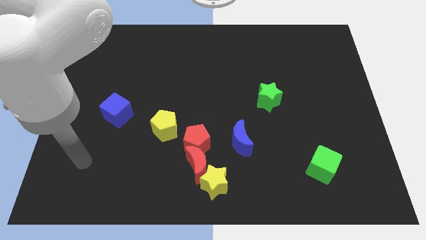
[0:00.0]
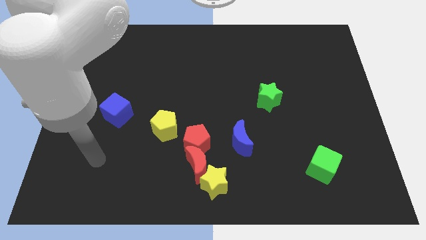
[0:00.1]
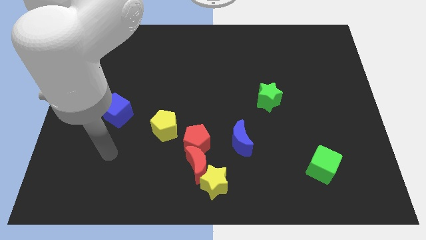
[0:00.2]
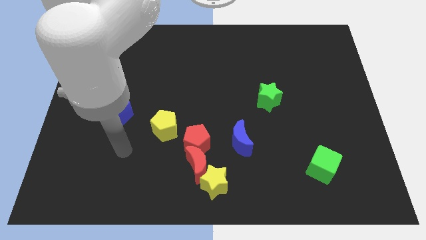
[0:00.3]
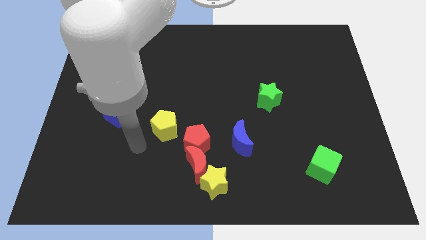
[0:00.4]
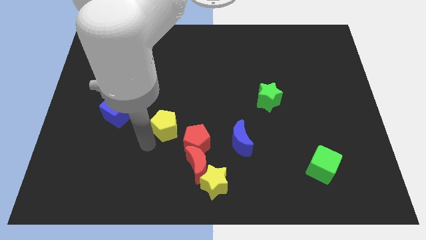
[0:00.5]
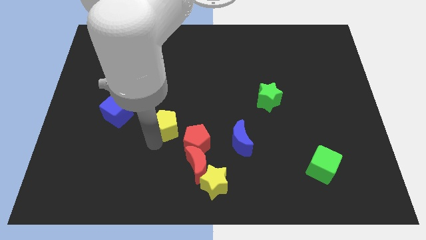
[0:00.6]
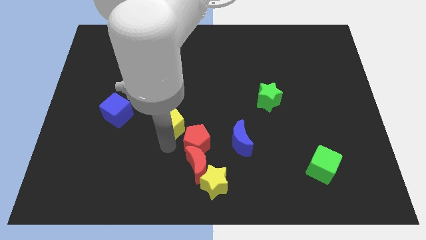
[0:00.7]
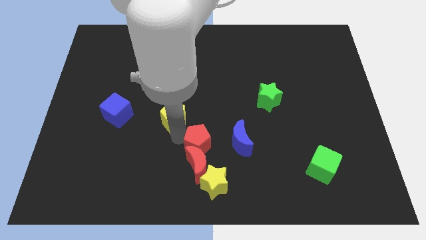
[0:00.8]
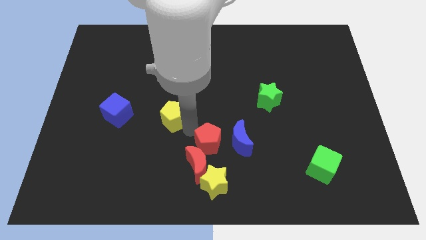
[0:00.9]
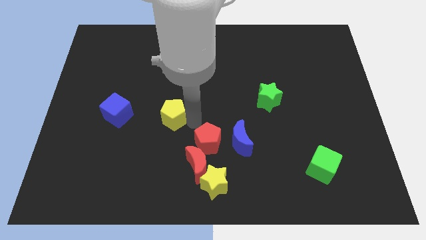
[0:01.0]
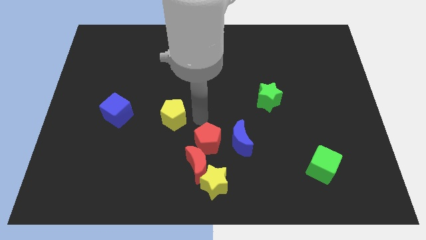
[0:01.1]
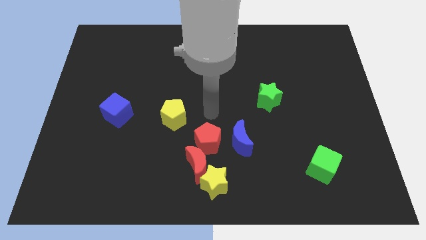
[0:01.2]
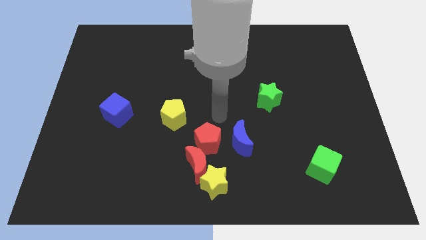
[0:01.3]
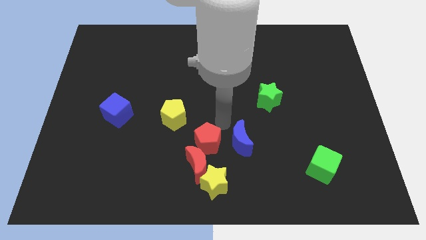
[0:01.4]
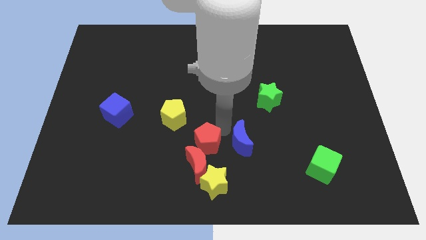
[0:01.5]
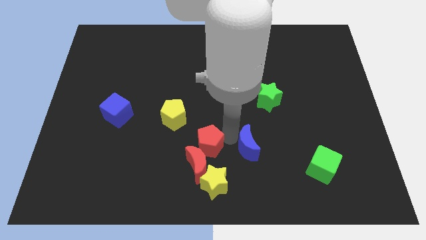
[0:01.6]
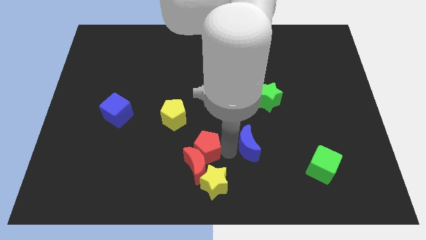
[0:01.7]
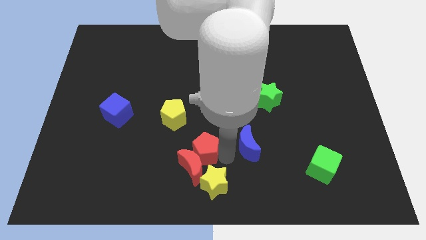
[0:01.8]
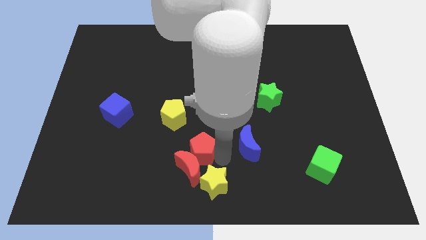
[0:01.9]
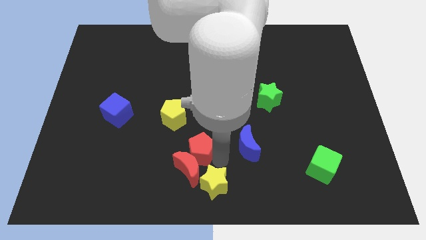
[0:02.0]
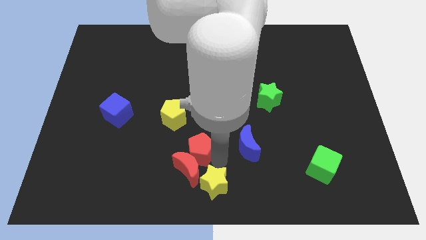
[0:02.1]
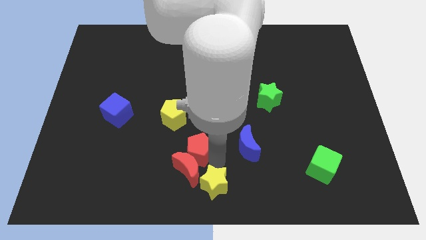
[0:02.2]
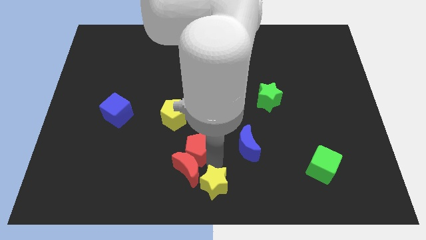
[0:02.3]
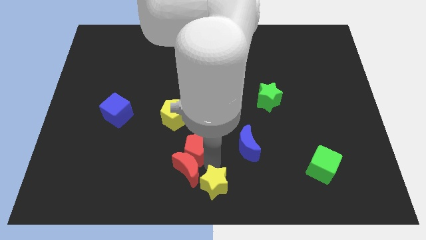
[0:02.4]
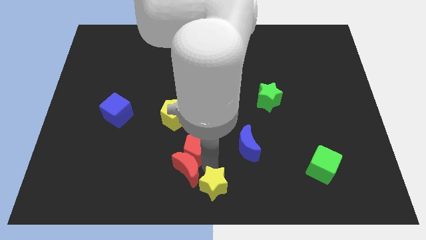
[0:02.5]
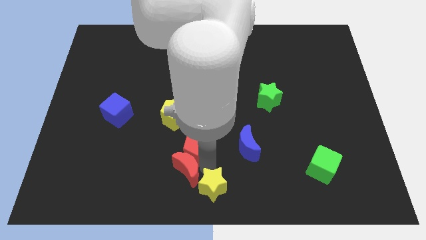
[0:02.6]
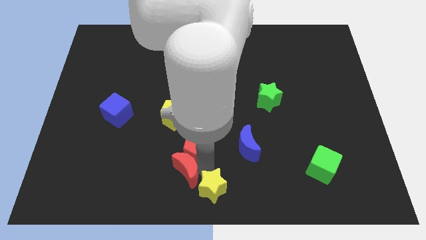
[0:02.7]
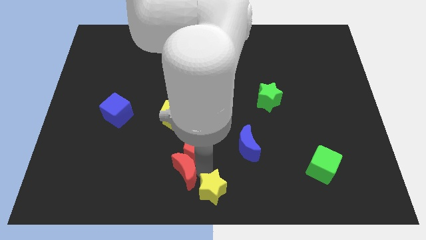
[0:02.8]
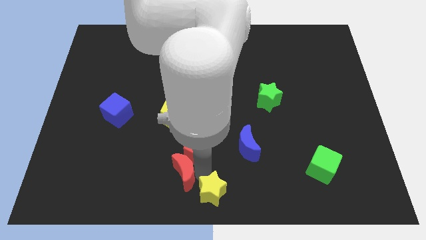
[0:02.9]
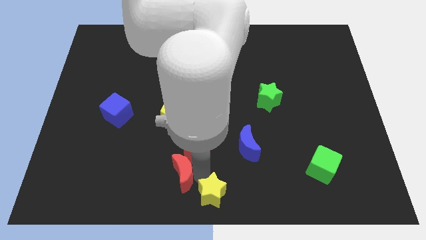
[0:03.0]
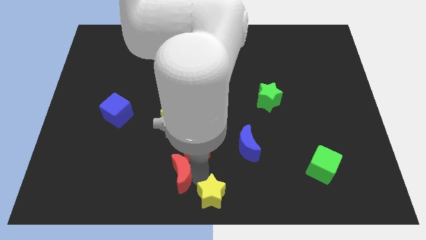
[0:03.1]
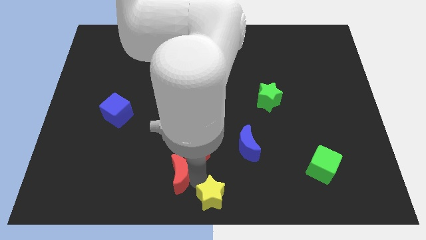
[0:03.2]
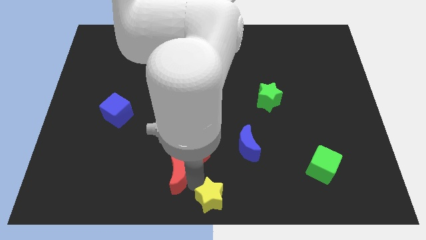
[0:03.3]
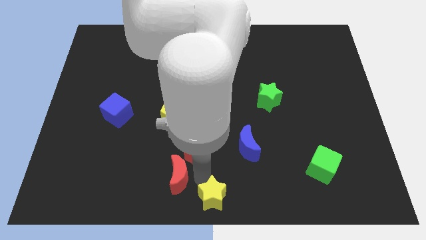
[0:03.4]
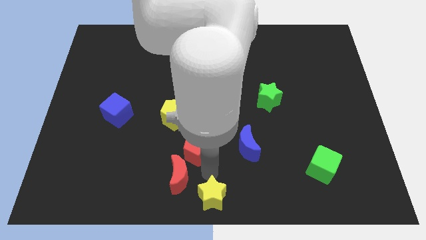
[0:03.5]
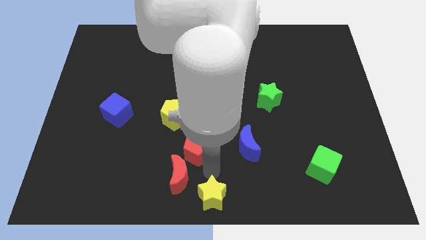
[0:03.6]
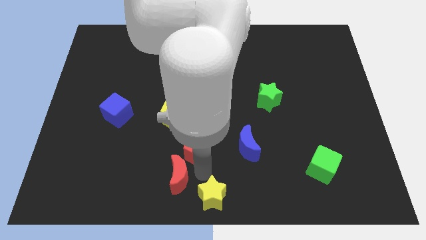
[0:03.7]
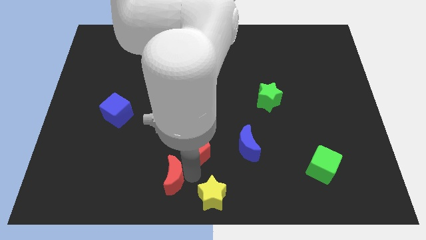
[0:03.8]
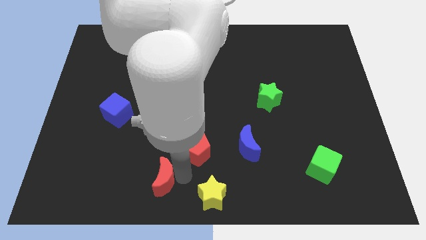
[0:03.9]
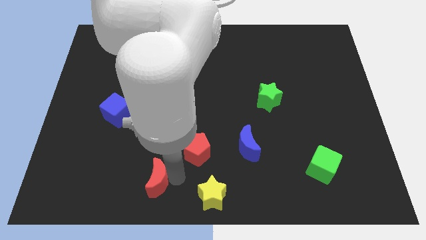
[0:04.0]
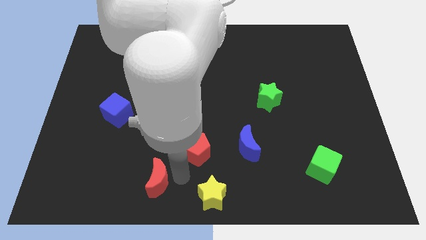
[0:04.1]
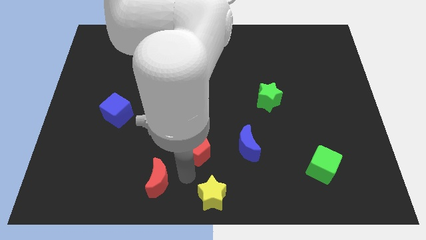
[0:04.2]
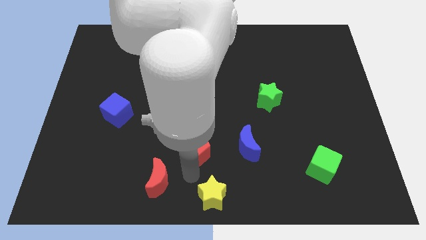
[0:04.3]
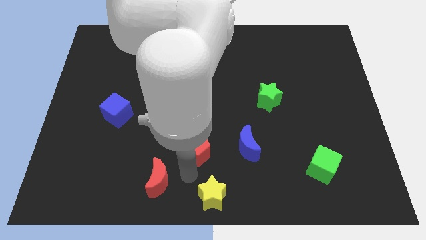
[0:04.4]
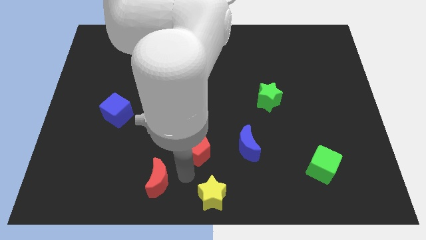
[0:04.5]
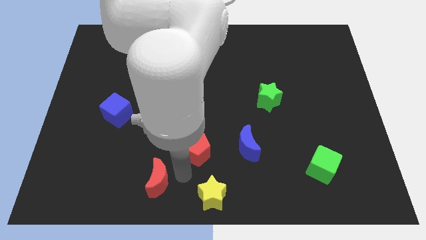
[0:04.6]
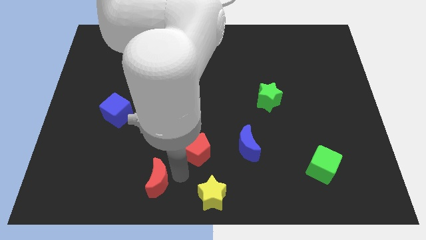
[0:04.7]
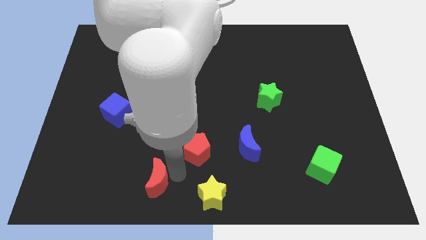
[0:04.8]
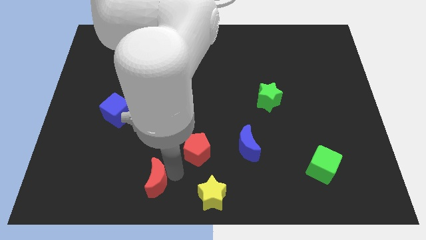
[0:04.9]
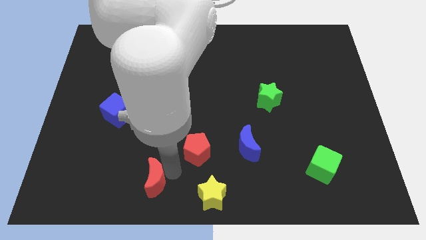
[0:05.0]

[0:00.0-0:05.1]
pull the red moon apart from the red pentagon and yellow star

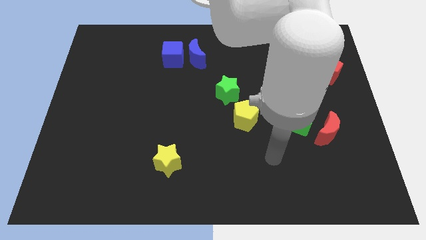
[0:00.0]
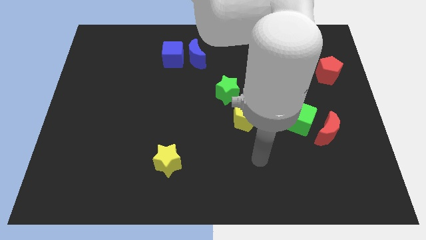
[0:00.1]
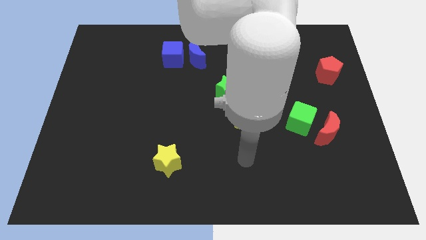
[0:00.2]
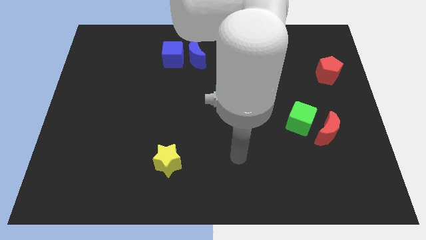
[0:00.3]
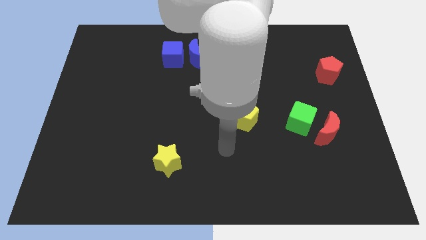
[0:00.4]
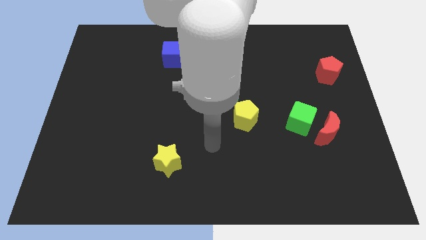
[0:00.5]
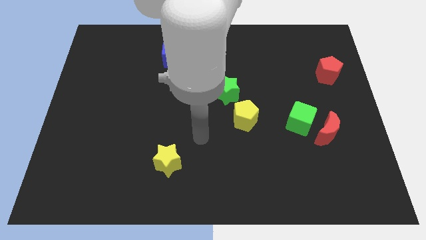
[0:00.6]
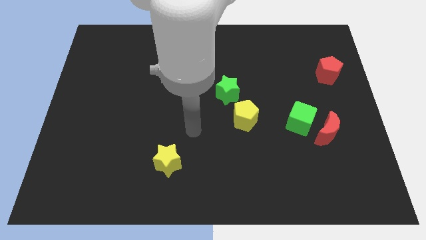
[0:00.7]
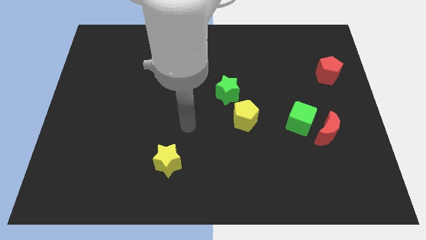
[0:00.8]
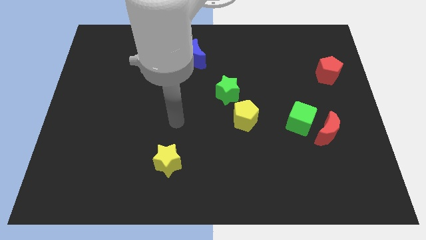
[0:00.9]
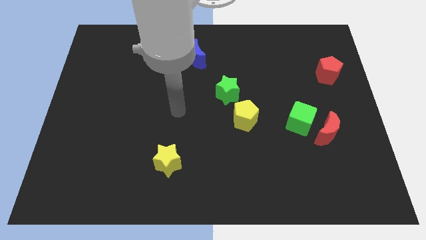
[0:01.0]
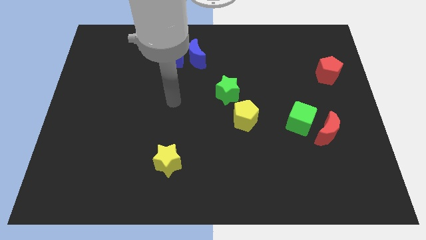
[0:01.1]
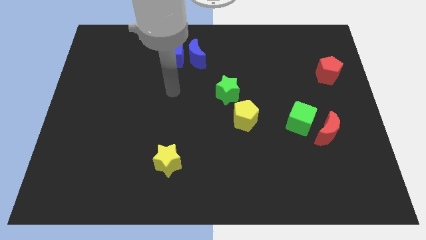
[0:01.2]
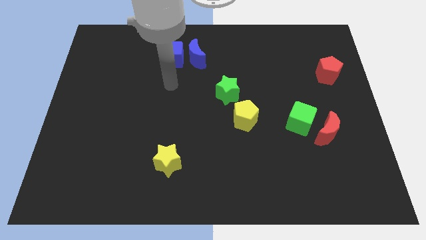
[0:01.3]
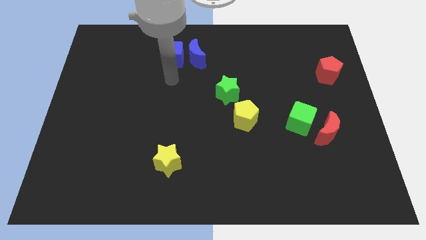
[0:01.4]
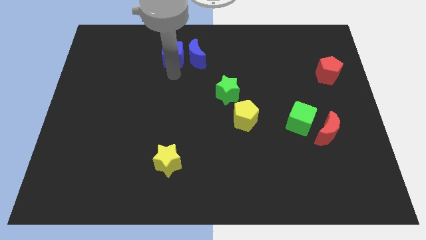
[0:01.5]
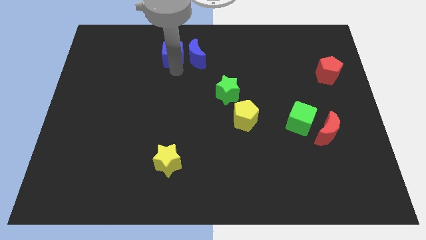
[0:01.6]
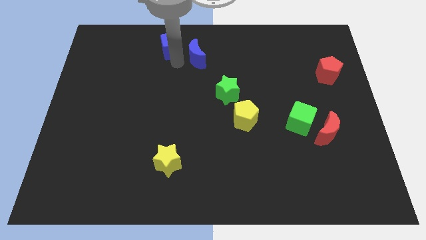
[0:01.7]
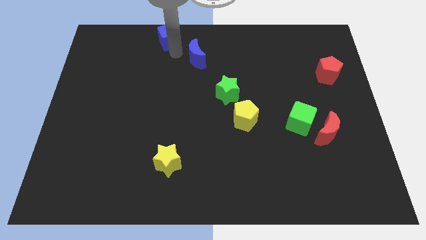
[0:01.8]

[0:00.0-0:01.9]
pull the blue moon apart from the blue cube

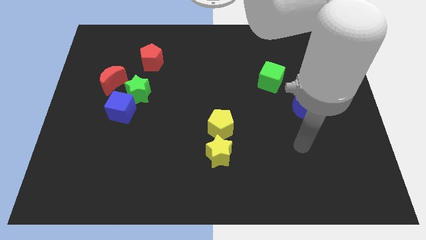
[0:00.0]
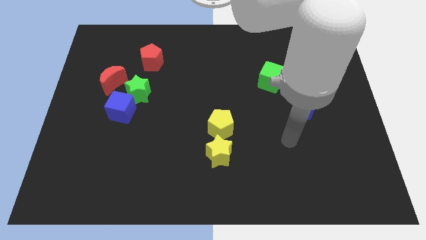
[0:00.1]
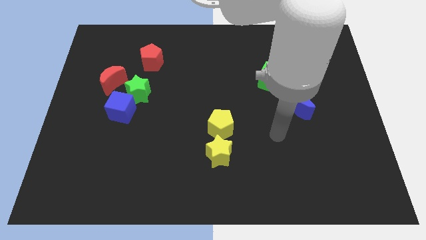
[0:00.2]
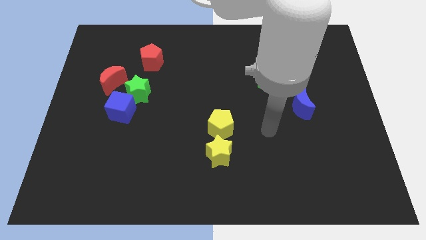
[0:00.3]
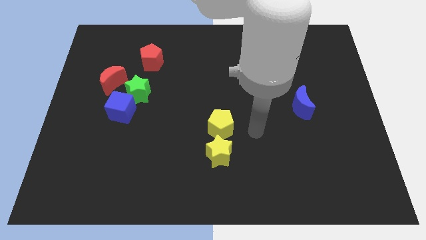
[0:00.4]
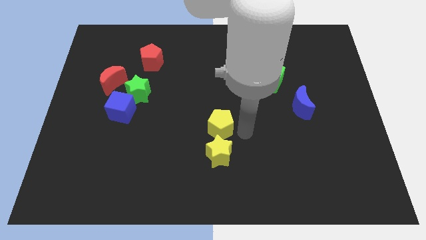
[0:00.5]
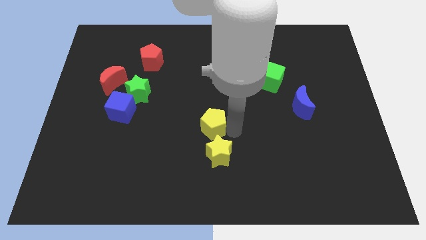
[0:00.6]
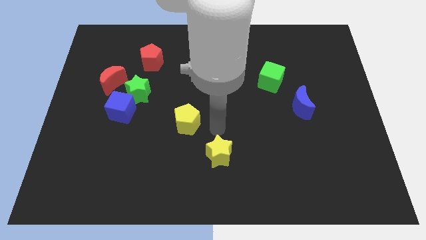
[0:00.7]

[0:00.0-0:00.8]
move the yellow star away from the yellow pentagon

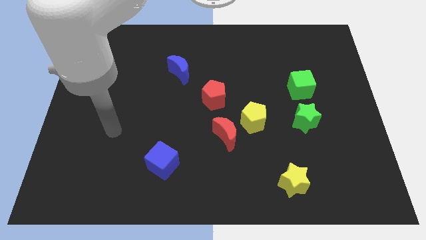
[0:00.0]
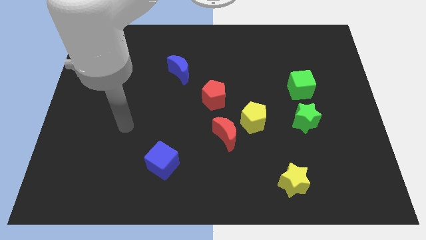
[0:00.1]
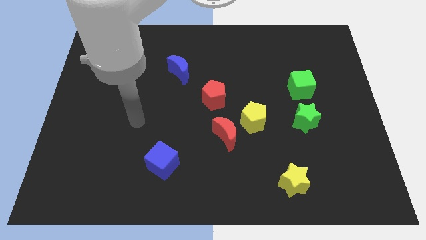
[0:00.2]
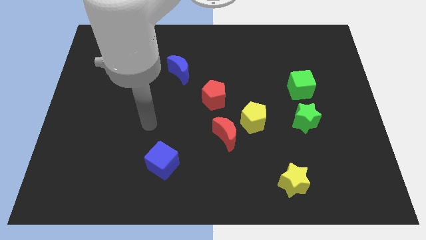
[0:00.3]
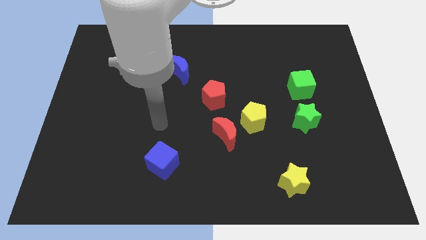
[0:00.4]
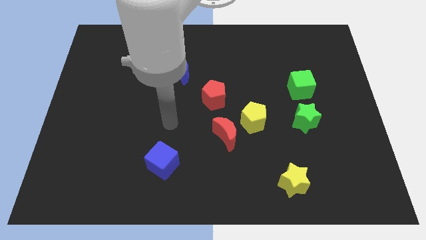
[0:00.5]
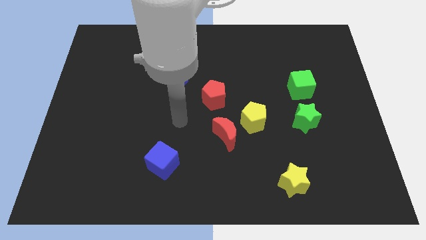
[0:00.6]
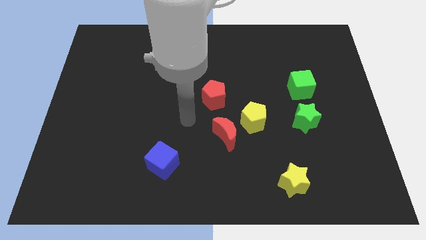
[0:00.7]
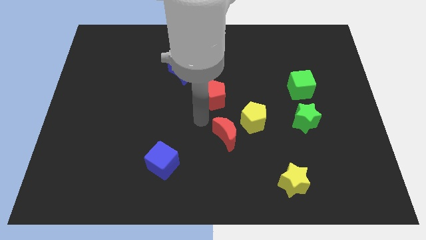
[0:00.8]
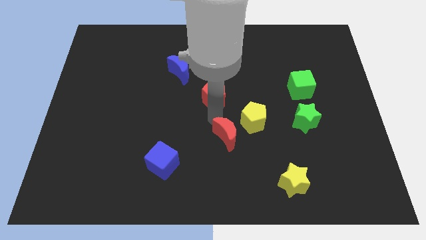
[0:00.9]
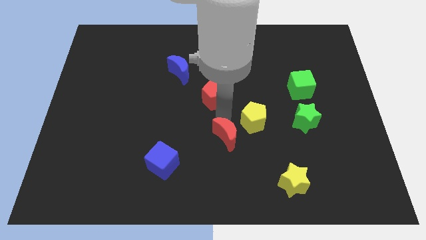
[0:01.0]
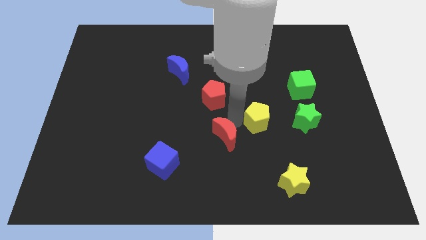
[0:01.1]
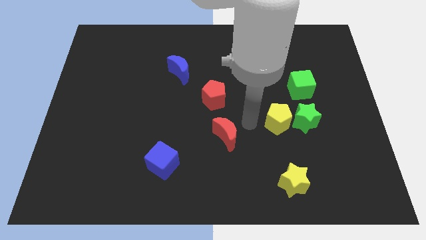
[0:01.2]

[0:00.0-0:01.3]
move the red moon away from the yellow pentagon
